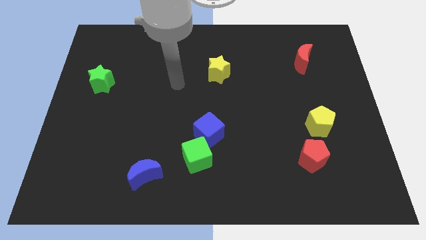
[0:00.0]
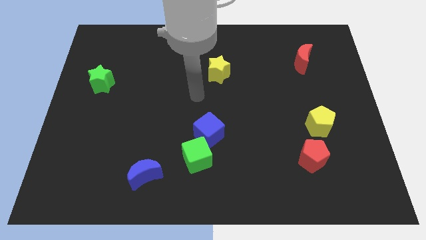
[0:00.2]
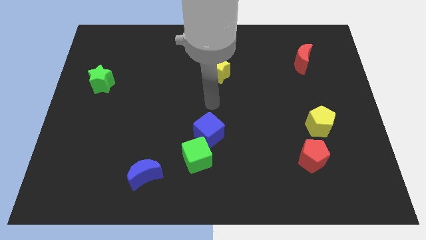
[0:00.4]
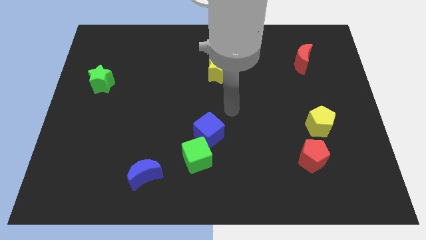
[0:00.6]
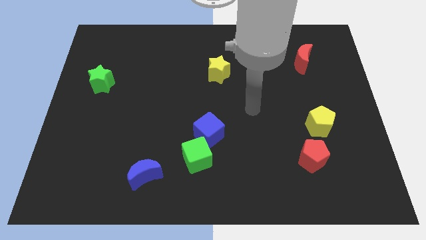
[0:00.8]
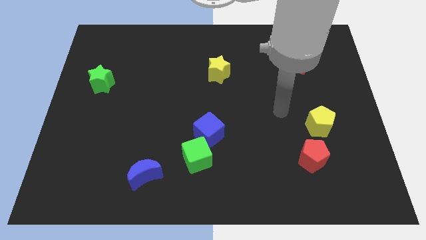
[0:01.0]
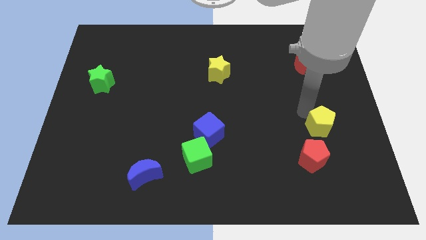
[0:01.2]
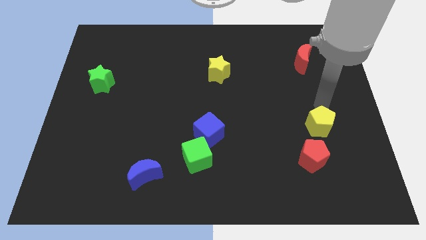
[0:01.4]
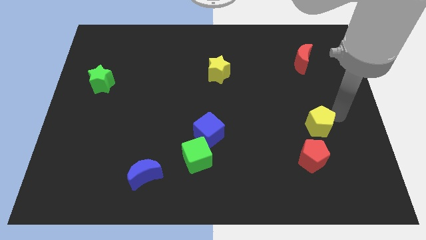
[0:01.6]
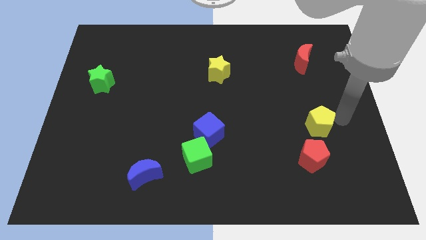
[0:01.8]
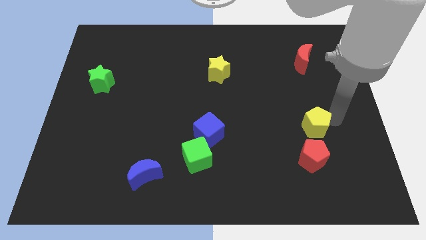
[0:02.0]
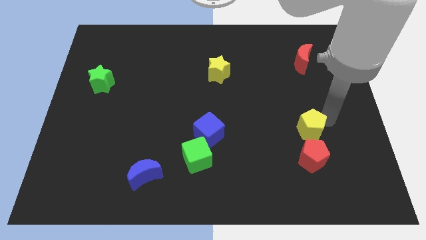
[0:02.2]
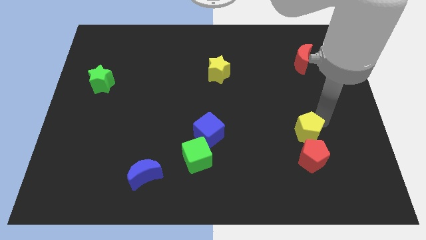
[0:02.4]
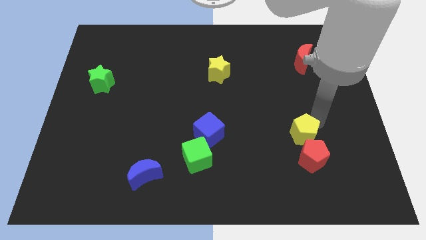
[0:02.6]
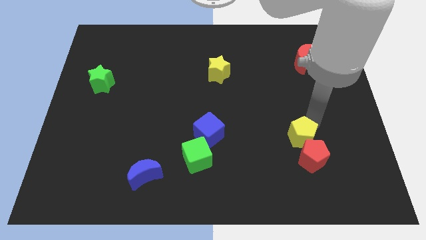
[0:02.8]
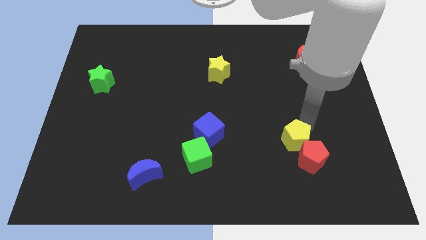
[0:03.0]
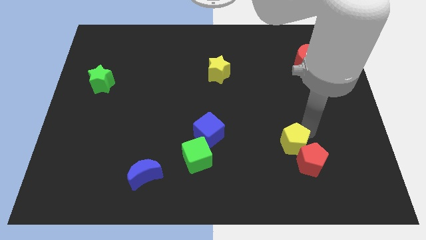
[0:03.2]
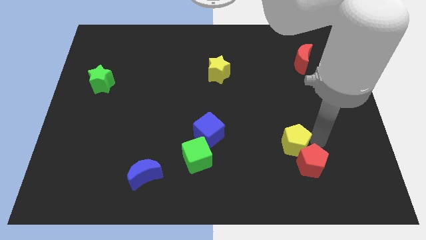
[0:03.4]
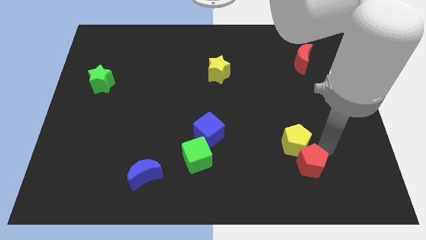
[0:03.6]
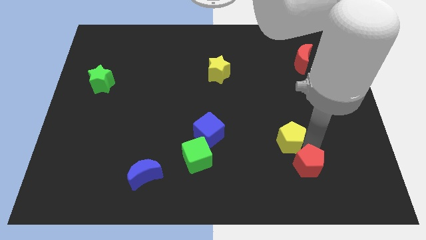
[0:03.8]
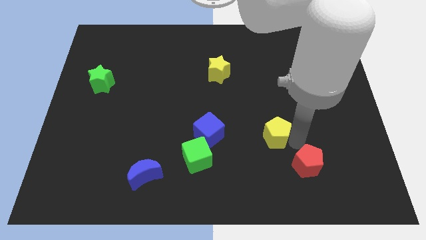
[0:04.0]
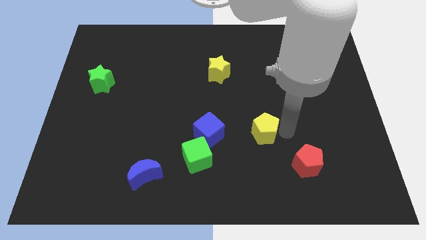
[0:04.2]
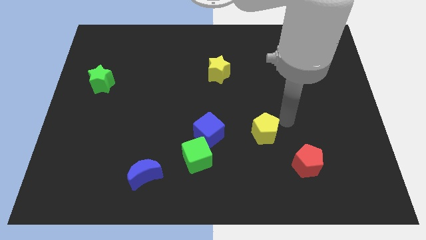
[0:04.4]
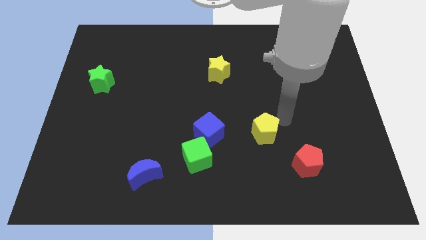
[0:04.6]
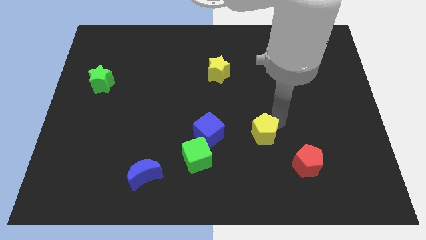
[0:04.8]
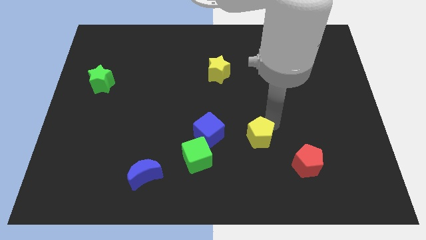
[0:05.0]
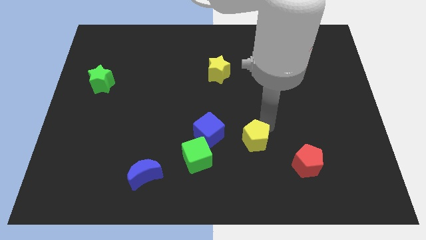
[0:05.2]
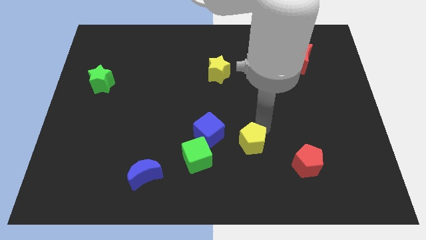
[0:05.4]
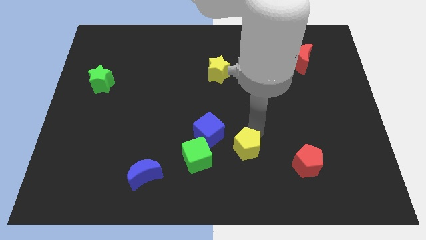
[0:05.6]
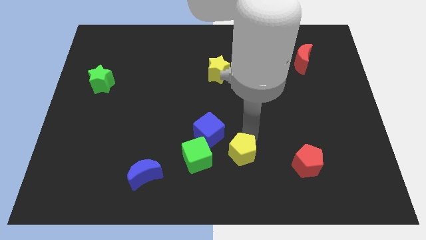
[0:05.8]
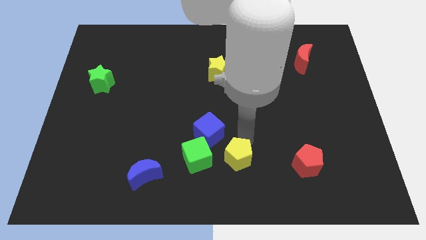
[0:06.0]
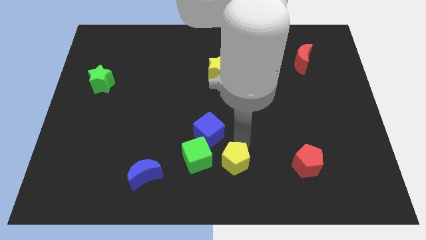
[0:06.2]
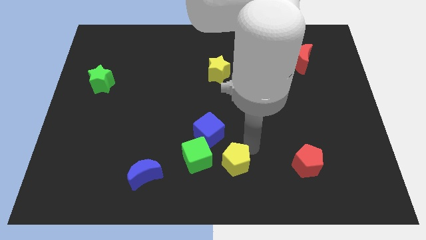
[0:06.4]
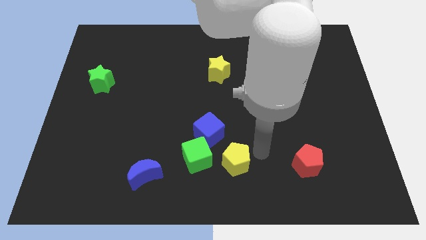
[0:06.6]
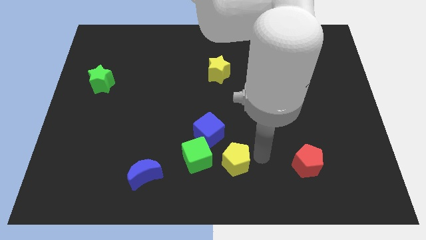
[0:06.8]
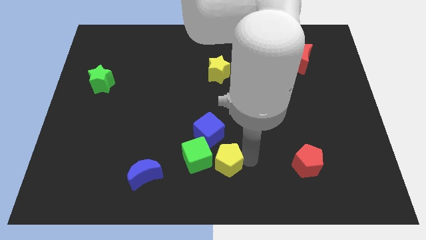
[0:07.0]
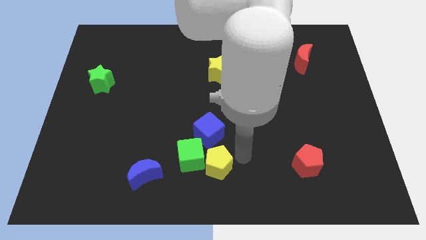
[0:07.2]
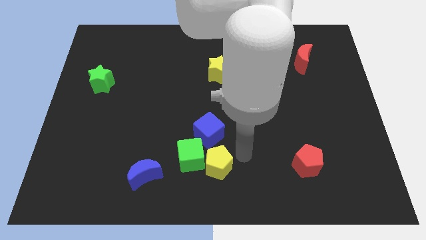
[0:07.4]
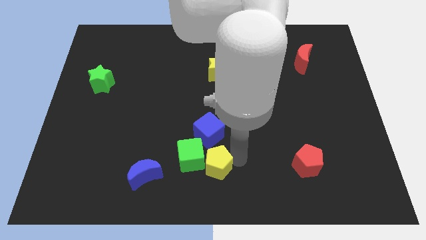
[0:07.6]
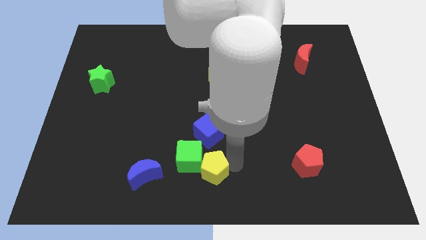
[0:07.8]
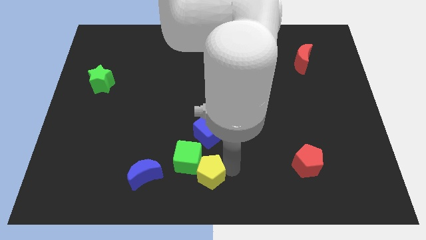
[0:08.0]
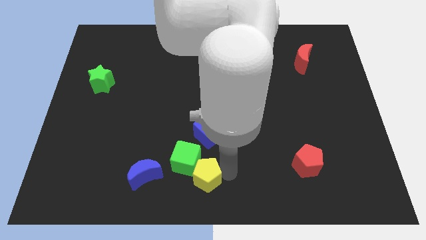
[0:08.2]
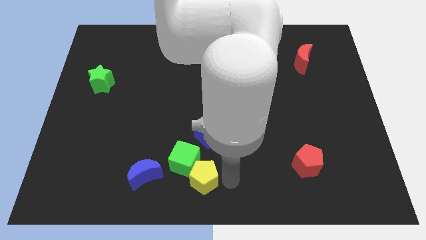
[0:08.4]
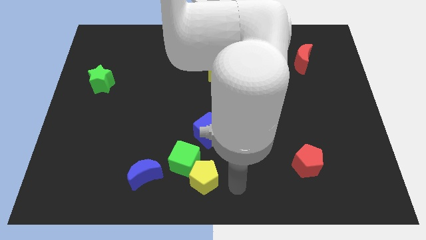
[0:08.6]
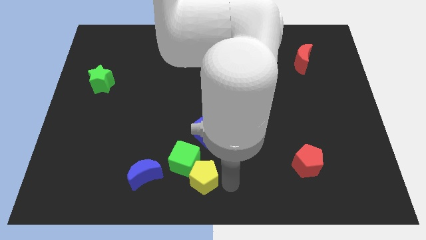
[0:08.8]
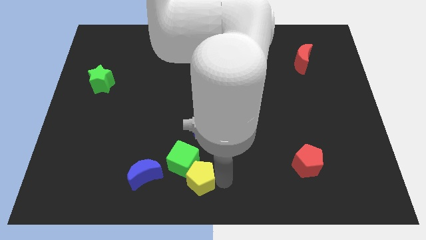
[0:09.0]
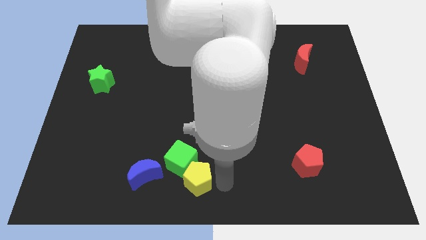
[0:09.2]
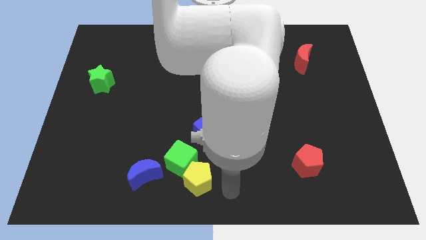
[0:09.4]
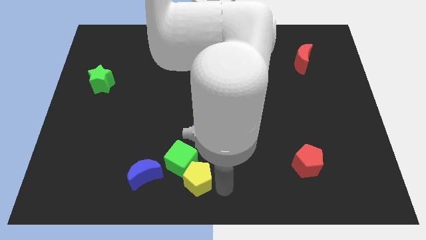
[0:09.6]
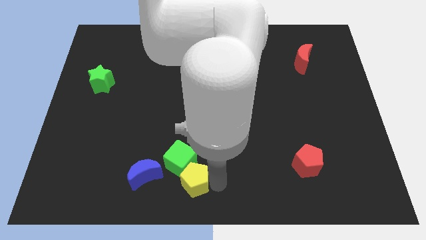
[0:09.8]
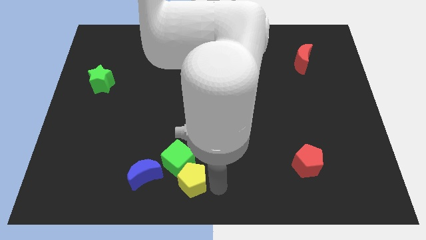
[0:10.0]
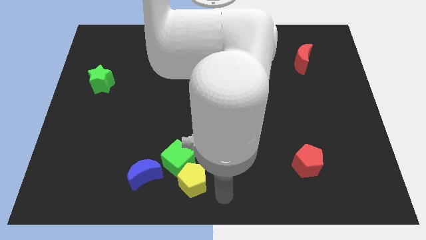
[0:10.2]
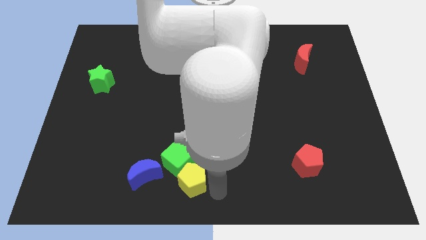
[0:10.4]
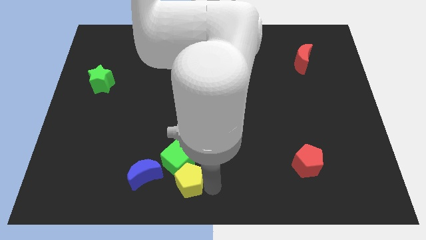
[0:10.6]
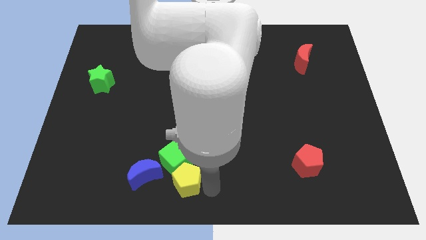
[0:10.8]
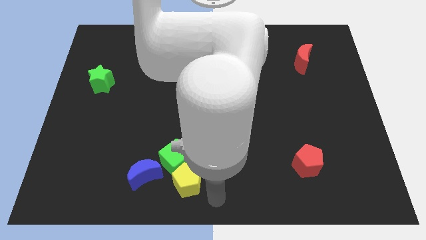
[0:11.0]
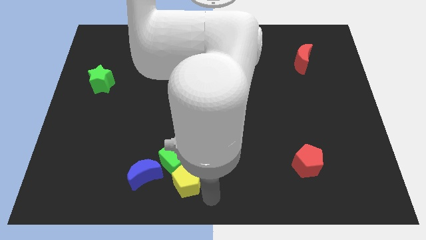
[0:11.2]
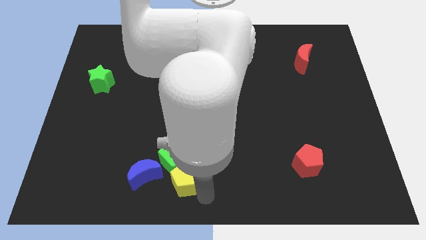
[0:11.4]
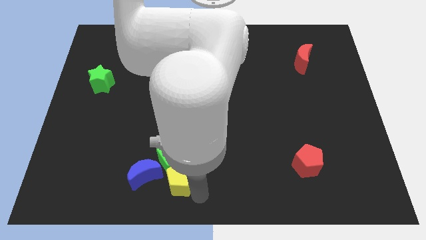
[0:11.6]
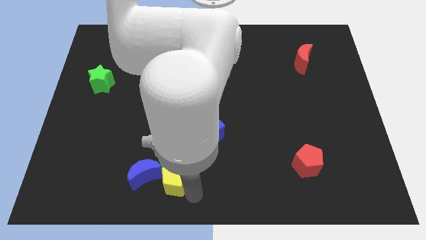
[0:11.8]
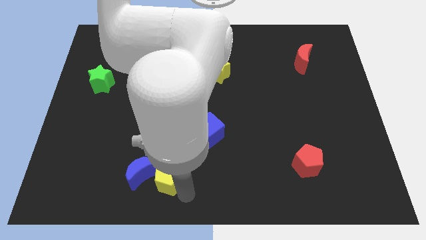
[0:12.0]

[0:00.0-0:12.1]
put the yellow pentagon to the blue moon

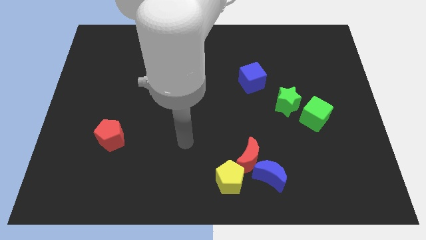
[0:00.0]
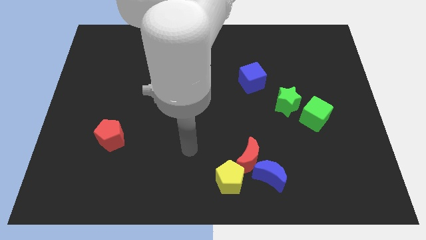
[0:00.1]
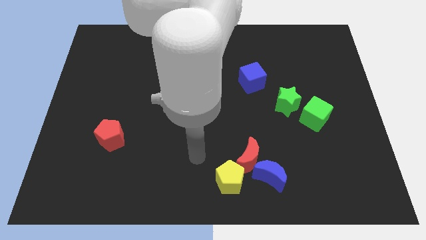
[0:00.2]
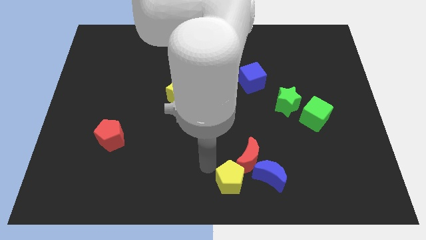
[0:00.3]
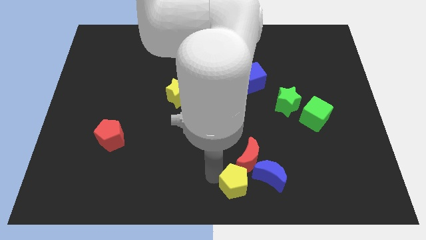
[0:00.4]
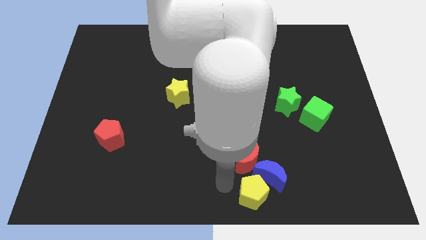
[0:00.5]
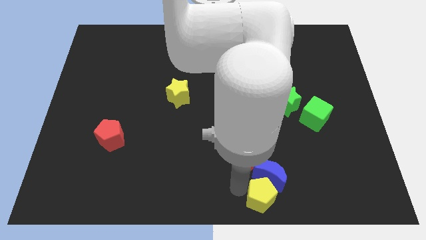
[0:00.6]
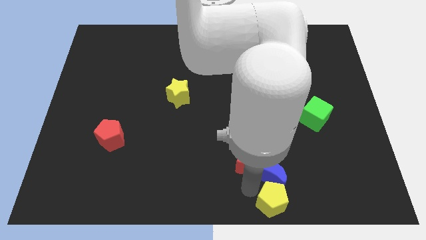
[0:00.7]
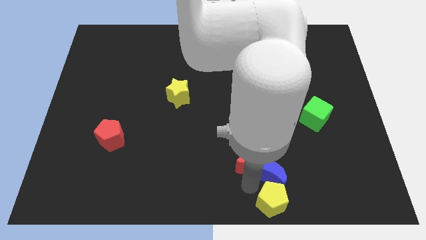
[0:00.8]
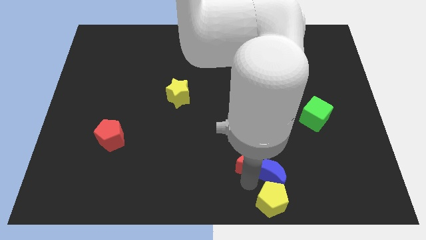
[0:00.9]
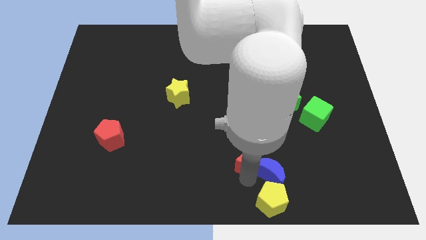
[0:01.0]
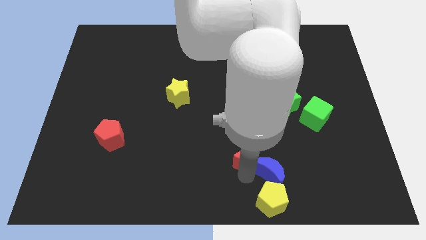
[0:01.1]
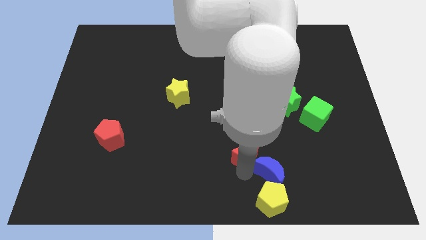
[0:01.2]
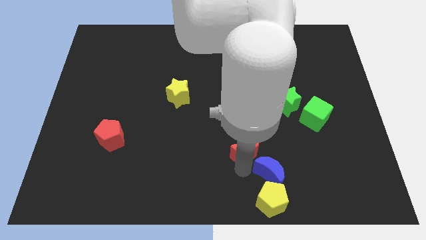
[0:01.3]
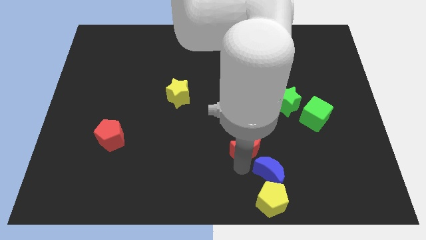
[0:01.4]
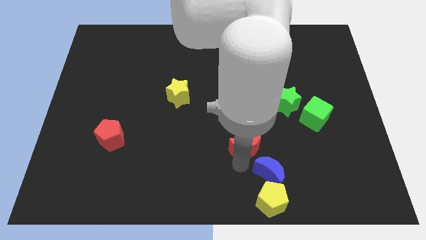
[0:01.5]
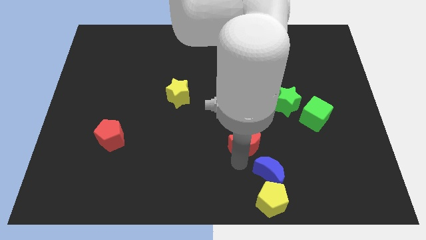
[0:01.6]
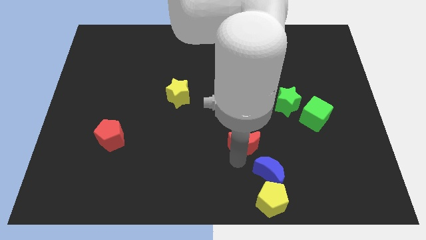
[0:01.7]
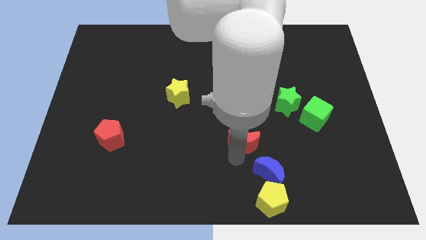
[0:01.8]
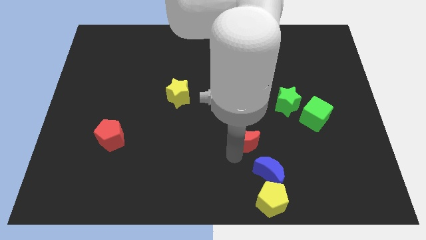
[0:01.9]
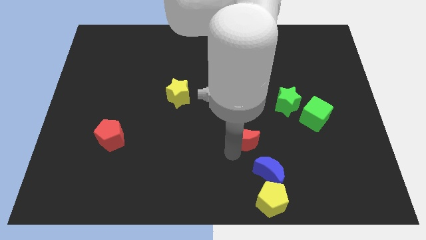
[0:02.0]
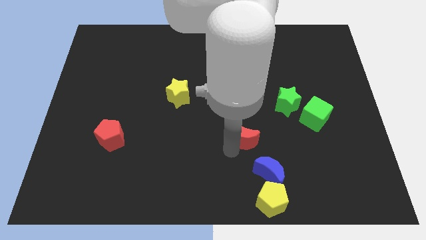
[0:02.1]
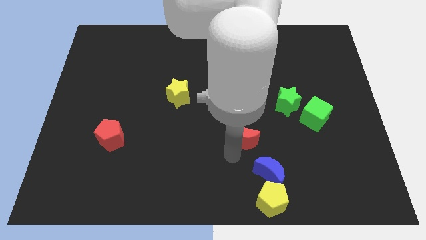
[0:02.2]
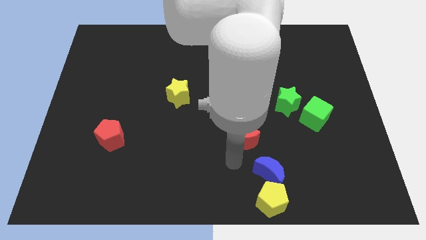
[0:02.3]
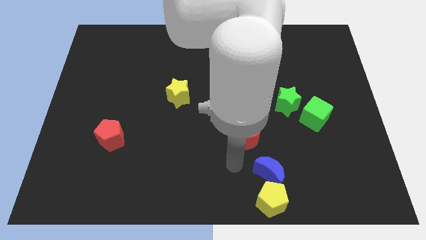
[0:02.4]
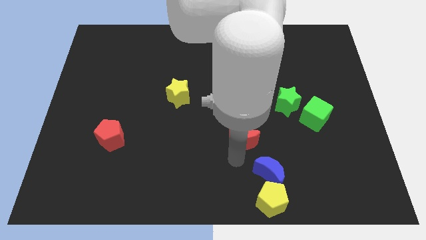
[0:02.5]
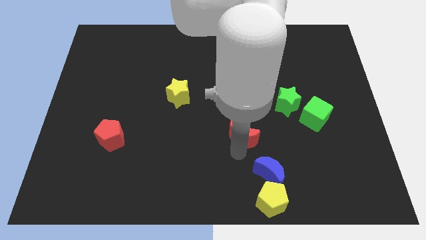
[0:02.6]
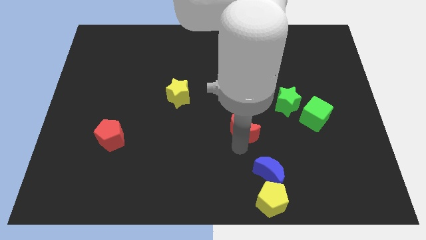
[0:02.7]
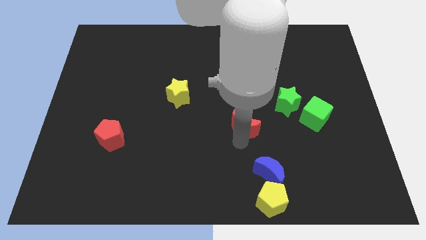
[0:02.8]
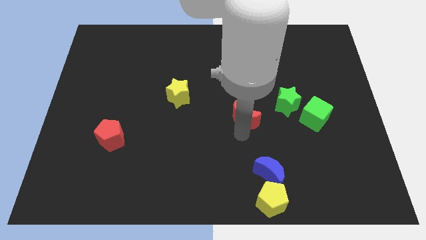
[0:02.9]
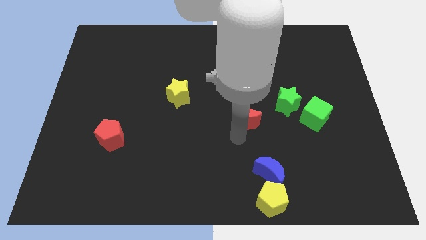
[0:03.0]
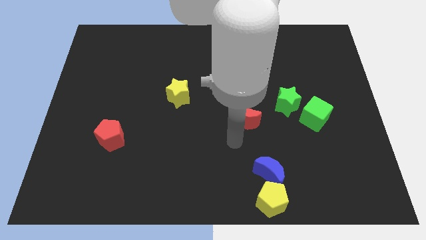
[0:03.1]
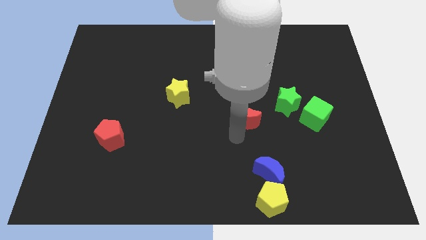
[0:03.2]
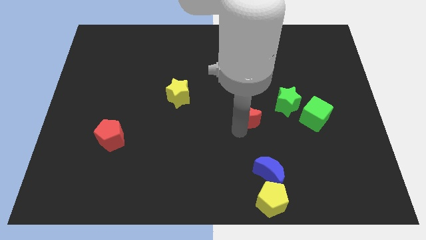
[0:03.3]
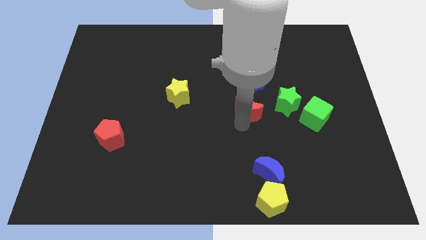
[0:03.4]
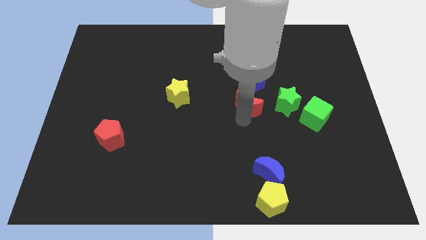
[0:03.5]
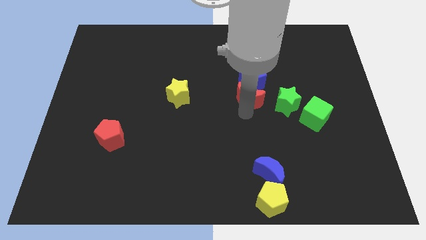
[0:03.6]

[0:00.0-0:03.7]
move the red moon close to the blue cube
